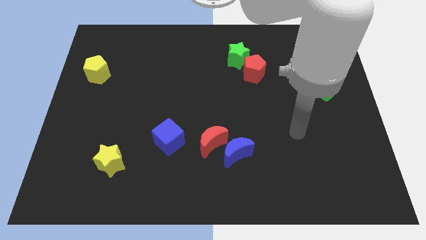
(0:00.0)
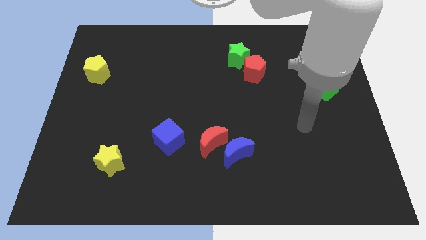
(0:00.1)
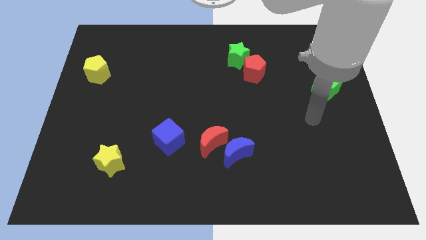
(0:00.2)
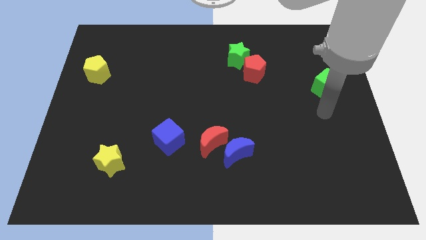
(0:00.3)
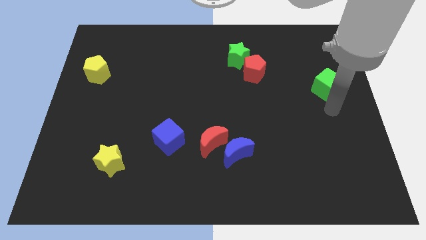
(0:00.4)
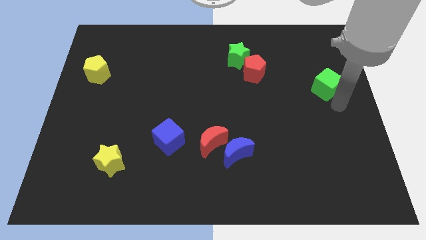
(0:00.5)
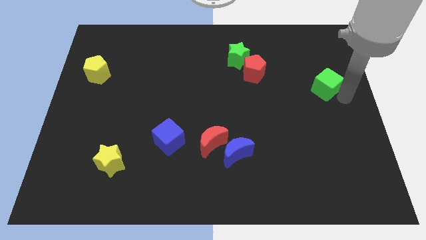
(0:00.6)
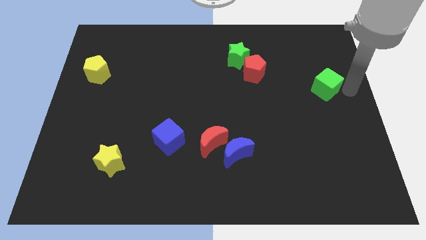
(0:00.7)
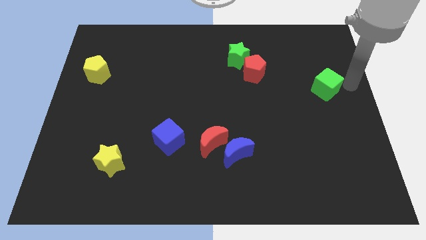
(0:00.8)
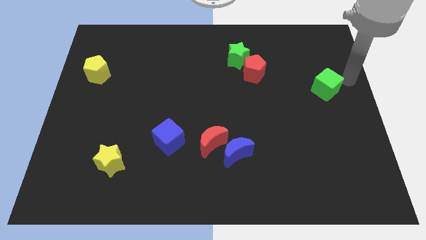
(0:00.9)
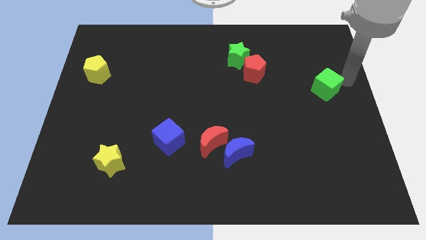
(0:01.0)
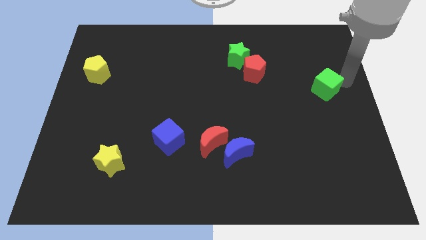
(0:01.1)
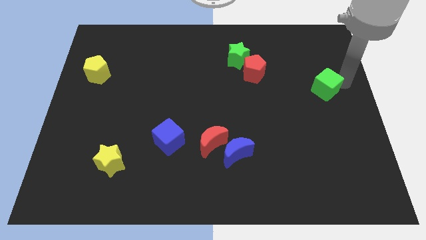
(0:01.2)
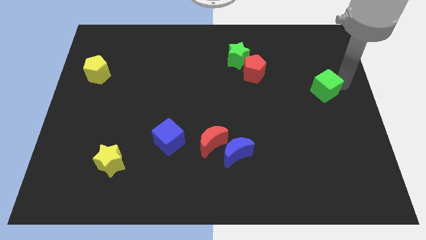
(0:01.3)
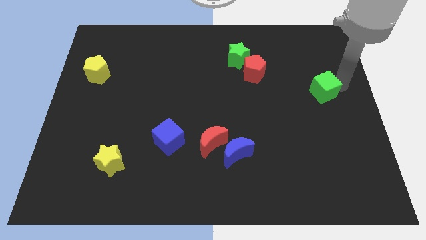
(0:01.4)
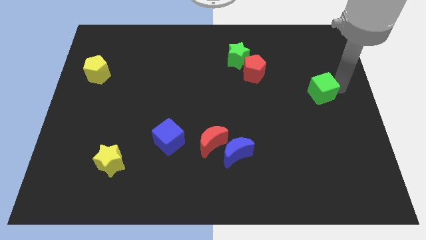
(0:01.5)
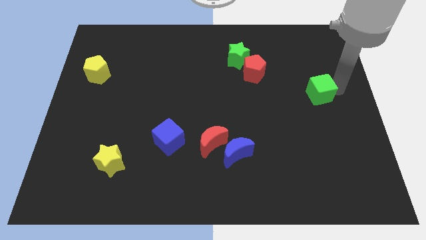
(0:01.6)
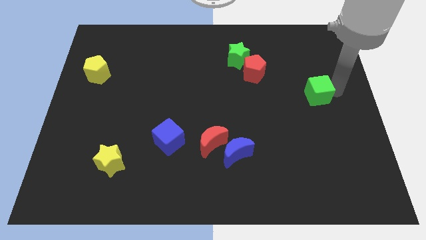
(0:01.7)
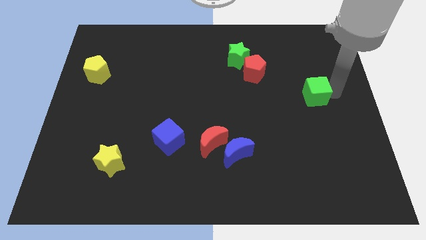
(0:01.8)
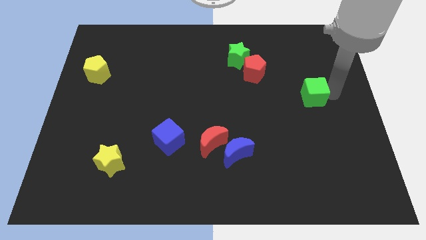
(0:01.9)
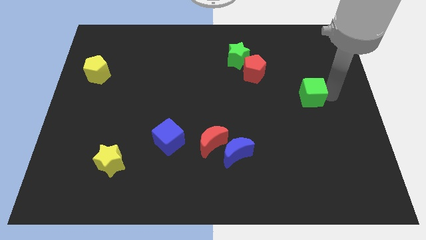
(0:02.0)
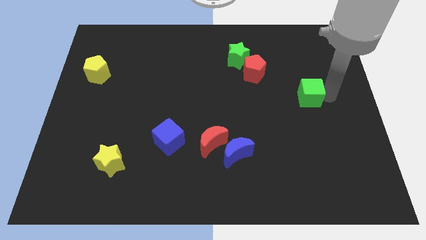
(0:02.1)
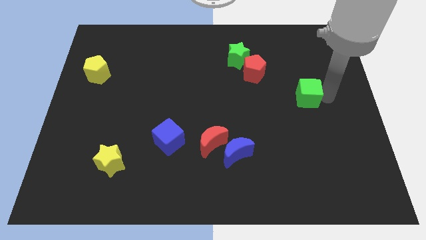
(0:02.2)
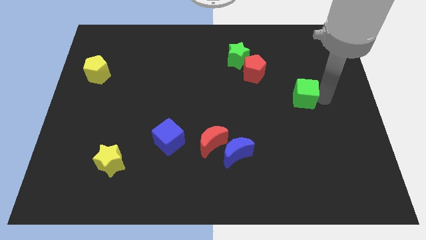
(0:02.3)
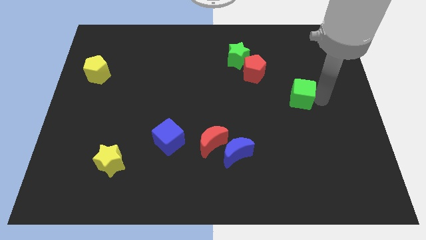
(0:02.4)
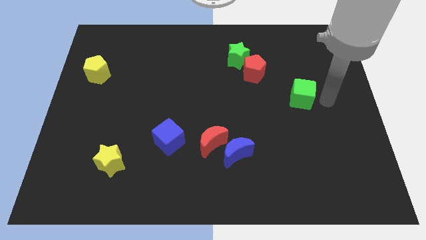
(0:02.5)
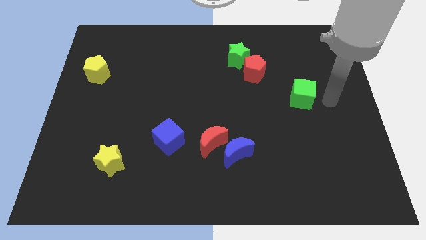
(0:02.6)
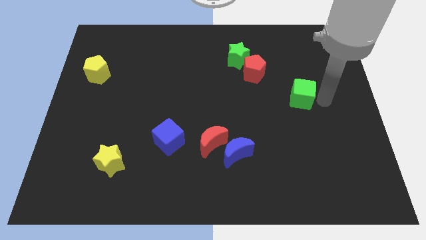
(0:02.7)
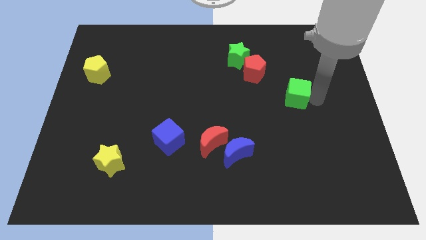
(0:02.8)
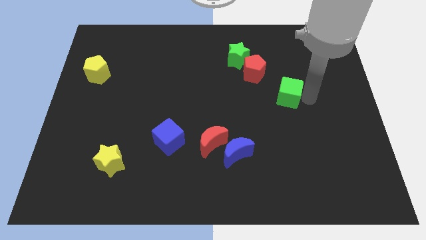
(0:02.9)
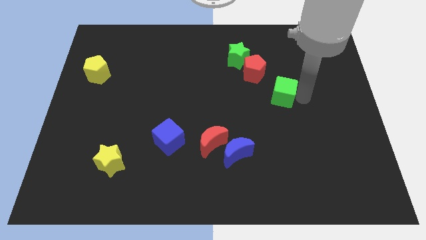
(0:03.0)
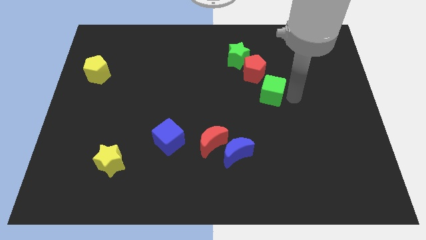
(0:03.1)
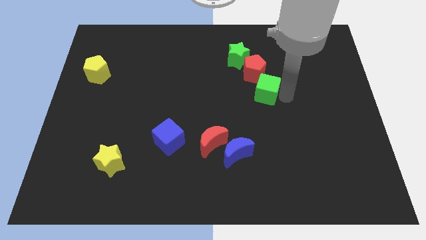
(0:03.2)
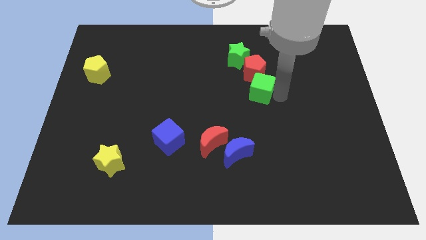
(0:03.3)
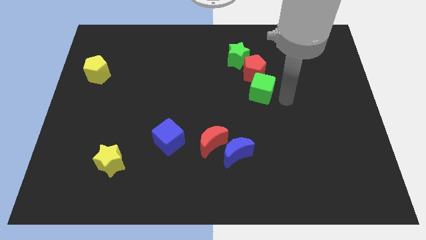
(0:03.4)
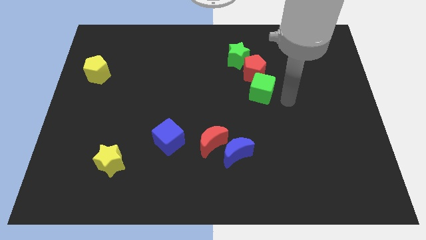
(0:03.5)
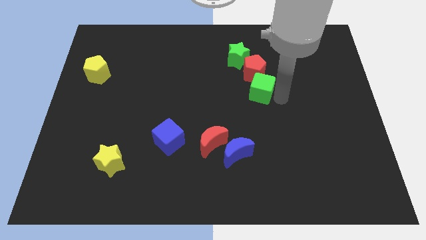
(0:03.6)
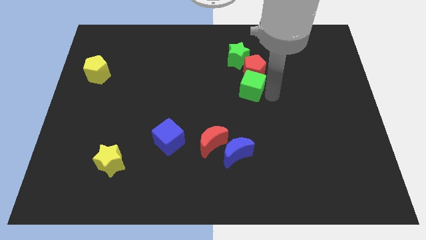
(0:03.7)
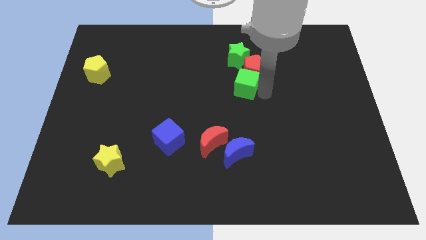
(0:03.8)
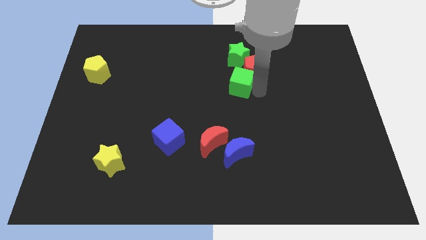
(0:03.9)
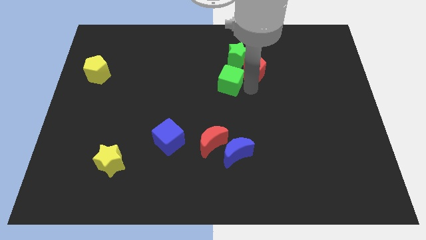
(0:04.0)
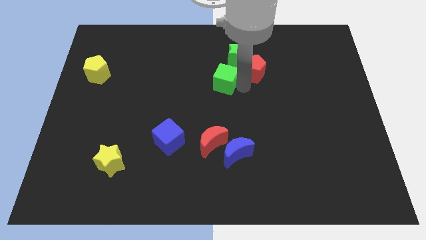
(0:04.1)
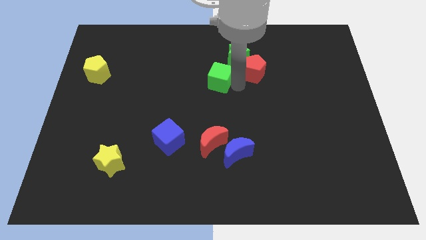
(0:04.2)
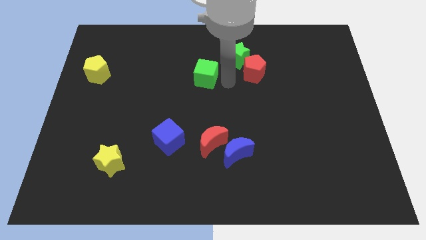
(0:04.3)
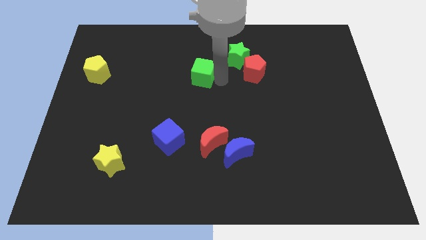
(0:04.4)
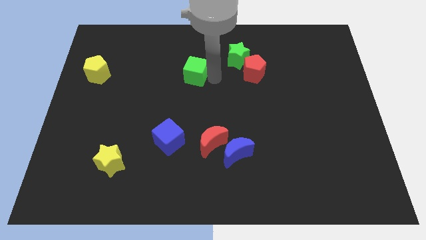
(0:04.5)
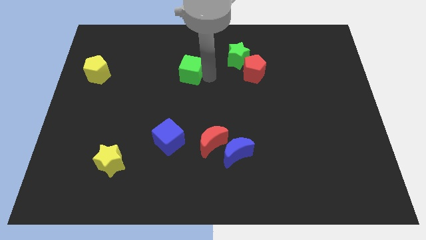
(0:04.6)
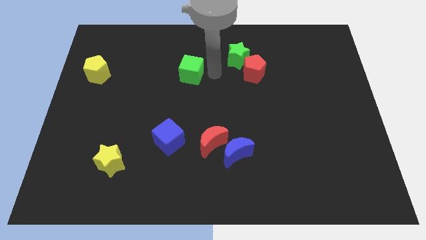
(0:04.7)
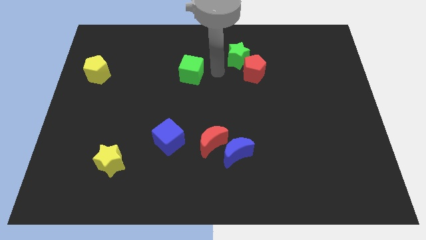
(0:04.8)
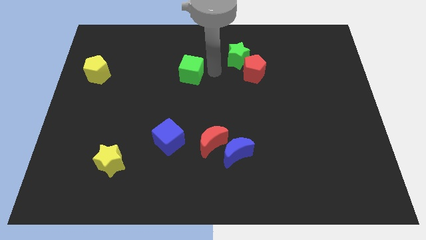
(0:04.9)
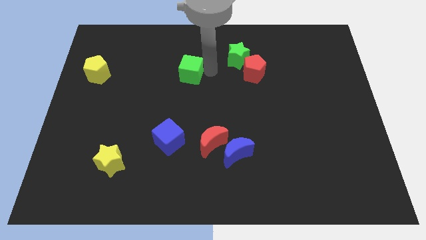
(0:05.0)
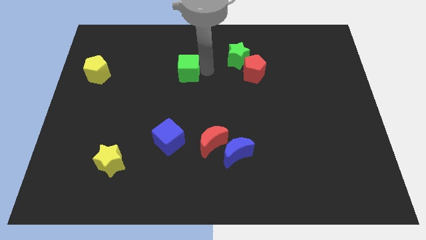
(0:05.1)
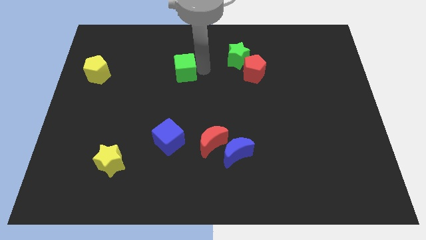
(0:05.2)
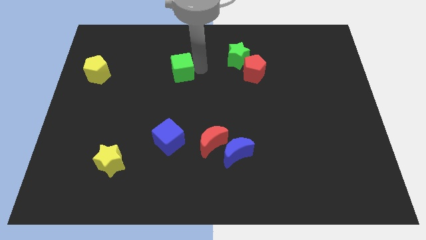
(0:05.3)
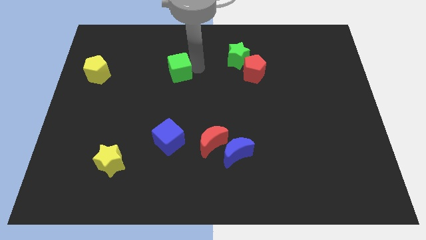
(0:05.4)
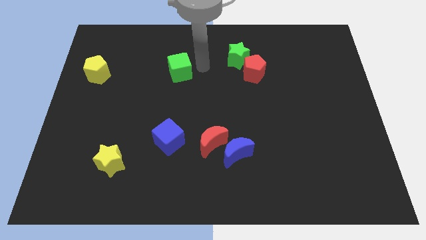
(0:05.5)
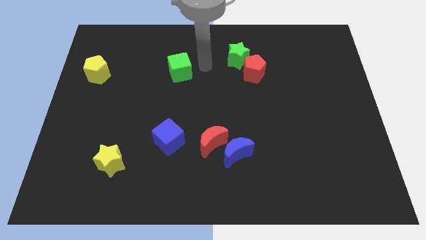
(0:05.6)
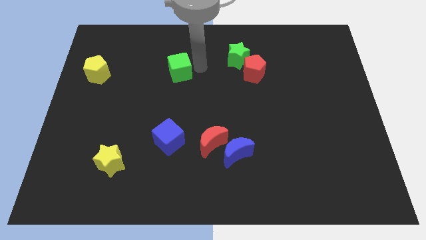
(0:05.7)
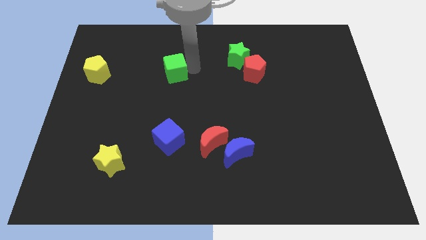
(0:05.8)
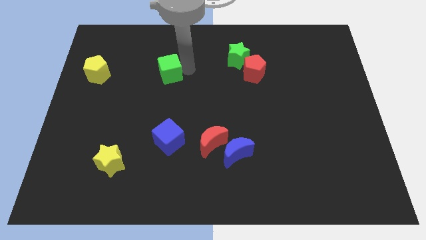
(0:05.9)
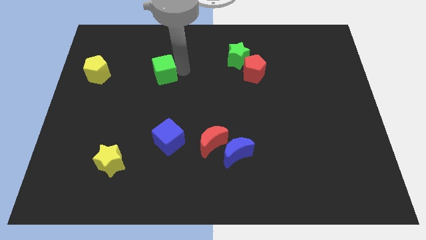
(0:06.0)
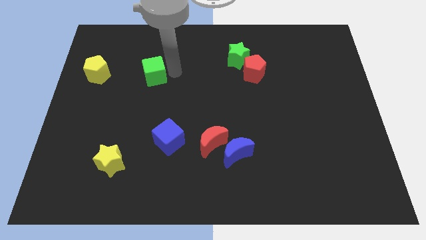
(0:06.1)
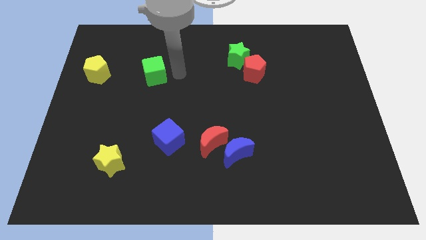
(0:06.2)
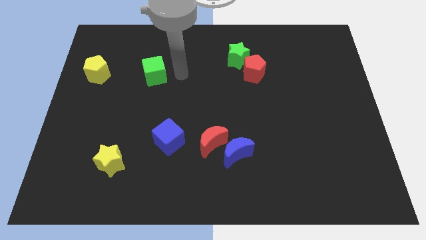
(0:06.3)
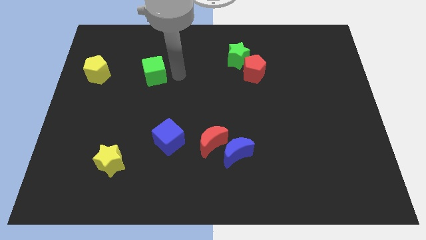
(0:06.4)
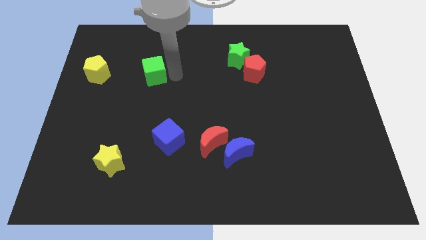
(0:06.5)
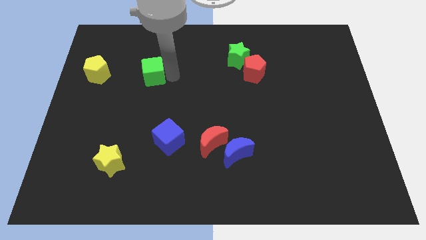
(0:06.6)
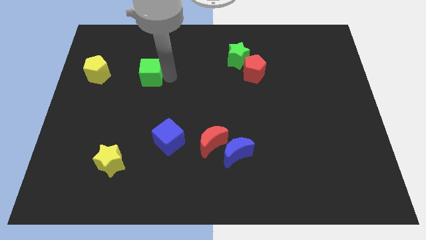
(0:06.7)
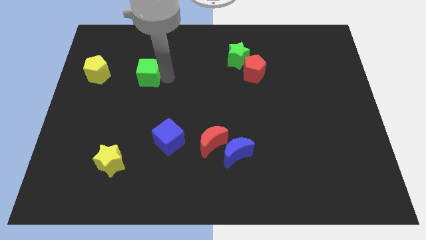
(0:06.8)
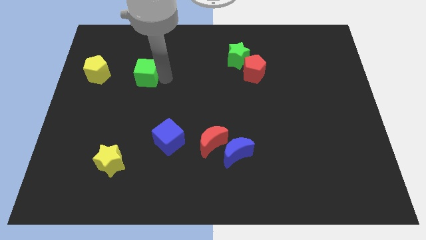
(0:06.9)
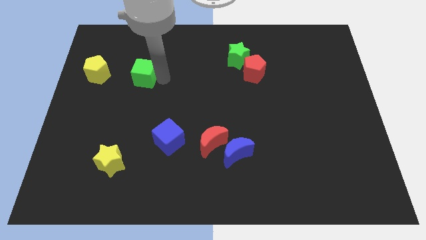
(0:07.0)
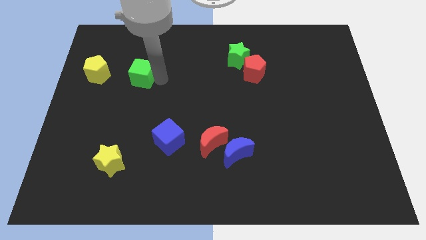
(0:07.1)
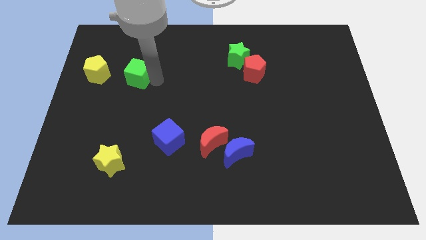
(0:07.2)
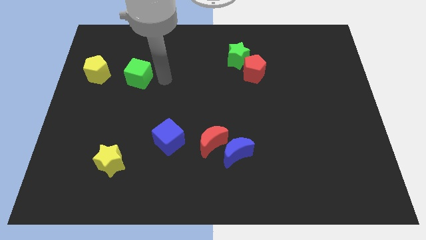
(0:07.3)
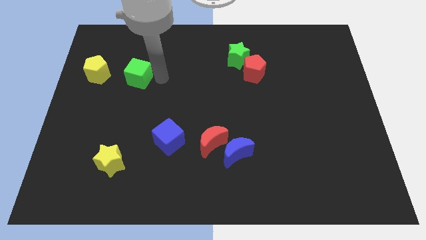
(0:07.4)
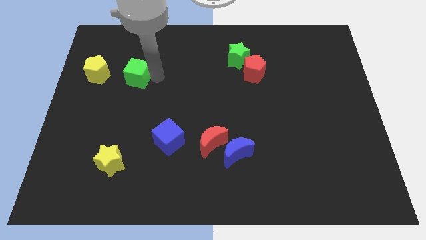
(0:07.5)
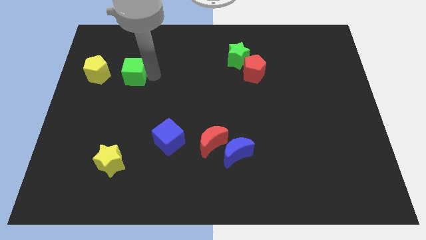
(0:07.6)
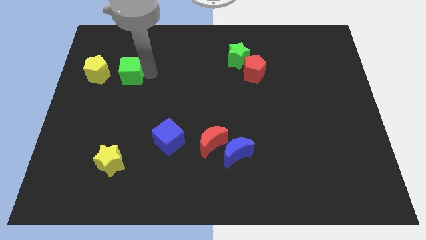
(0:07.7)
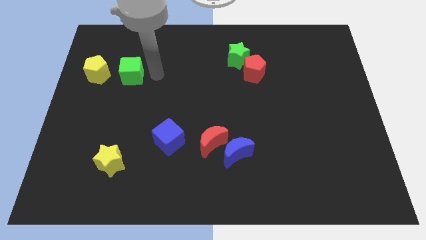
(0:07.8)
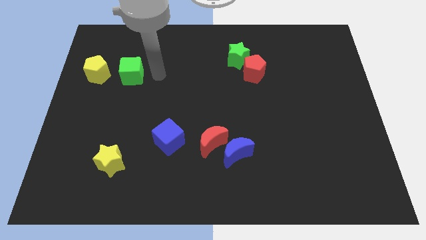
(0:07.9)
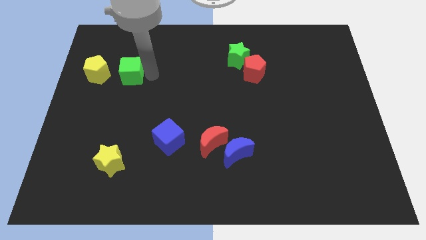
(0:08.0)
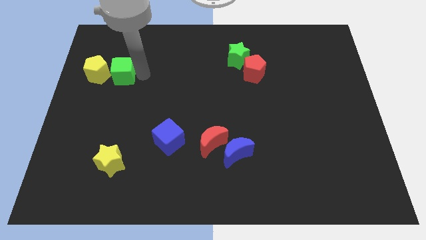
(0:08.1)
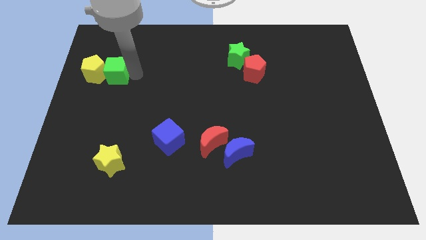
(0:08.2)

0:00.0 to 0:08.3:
put the green cube to the yellow pentagon
